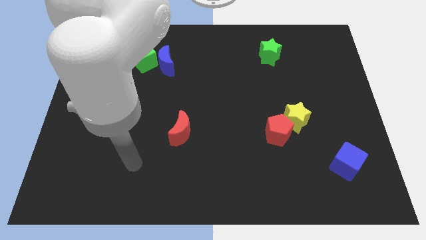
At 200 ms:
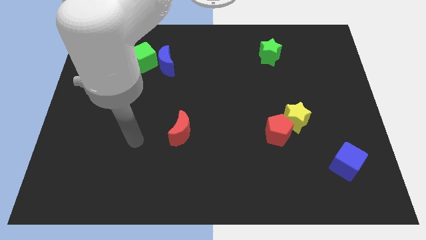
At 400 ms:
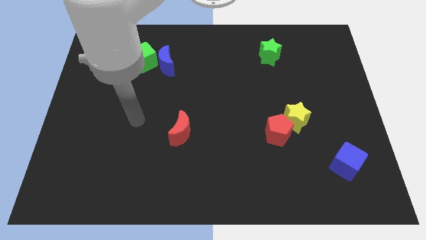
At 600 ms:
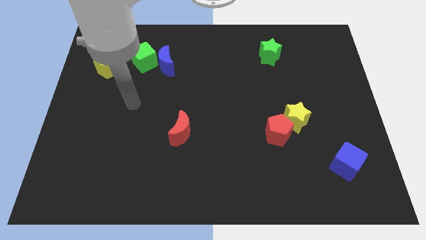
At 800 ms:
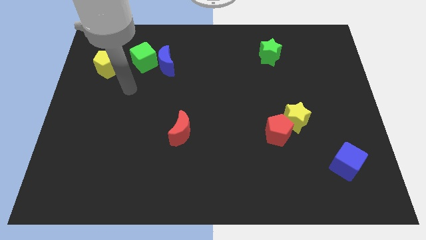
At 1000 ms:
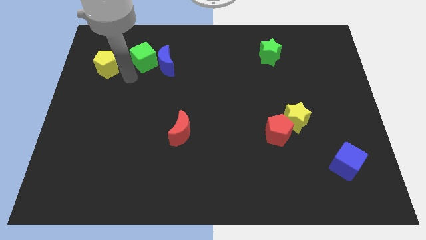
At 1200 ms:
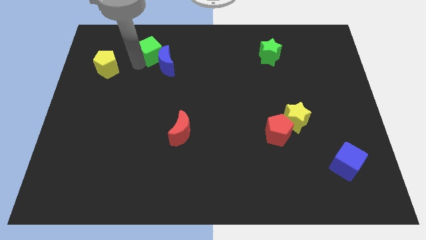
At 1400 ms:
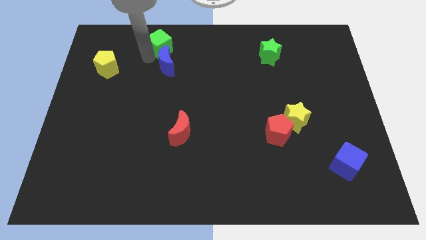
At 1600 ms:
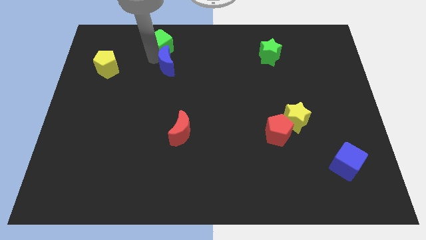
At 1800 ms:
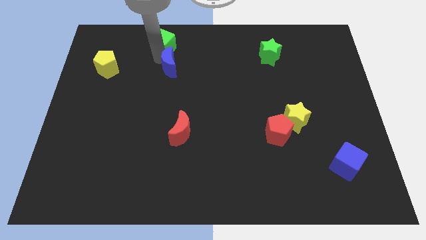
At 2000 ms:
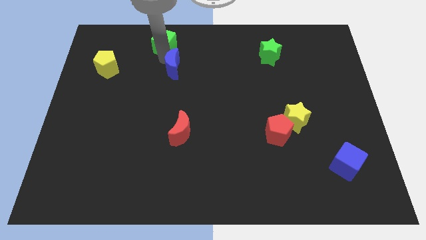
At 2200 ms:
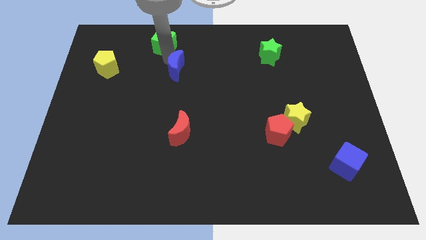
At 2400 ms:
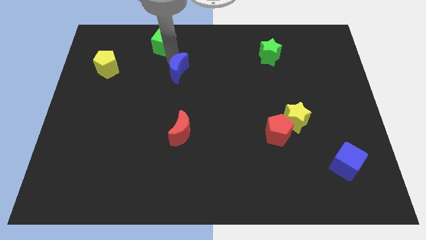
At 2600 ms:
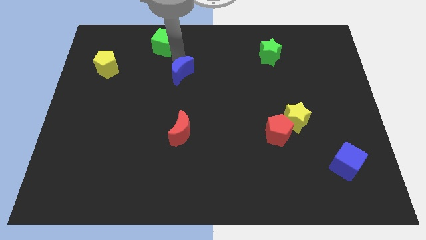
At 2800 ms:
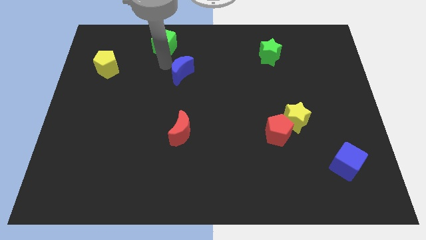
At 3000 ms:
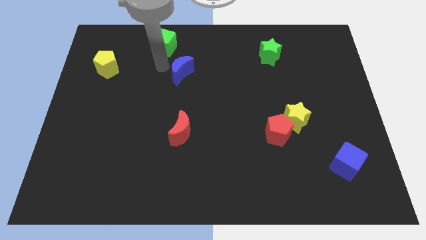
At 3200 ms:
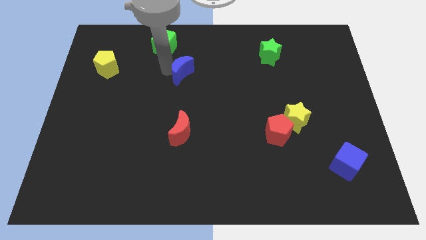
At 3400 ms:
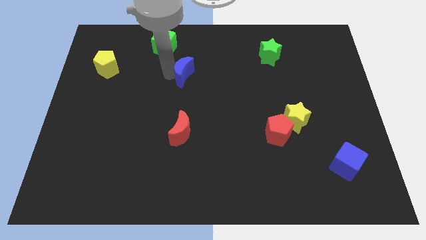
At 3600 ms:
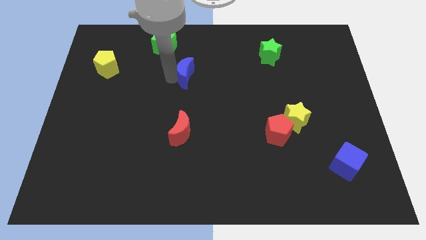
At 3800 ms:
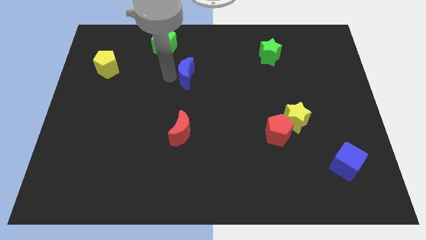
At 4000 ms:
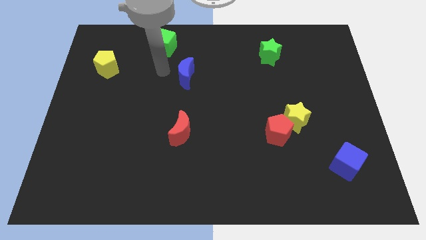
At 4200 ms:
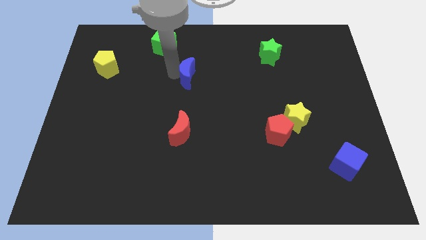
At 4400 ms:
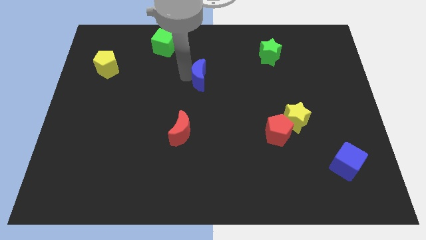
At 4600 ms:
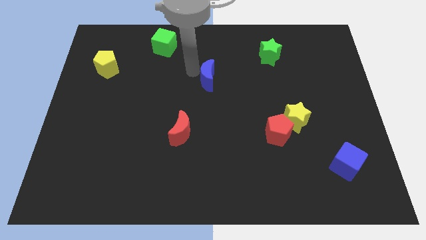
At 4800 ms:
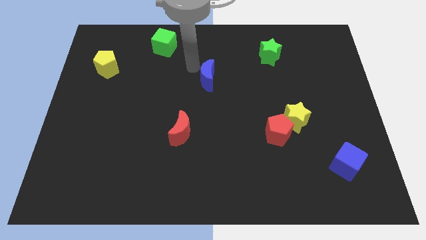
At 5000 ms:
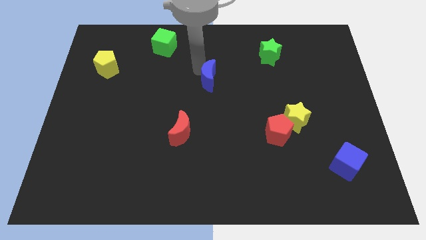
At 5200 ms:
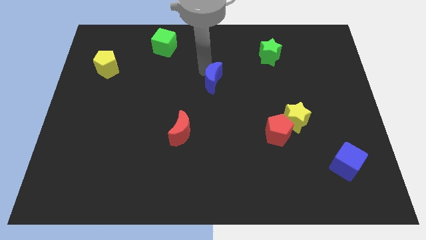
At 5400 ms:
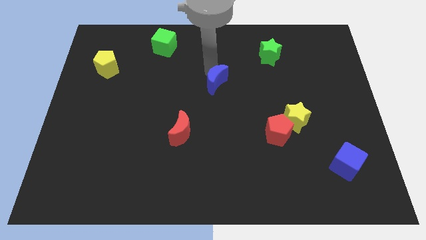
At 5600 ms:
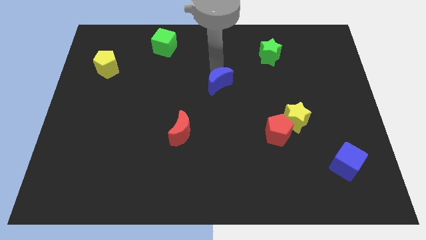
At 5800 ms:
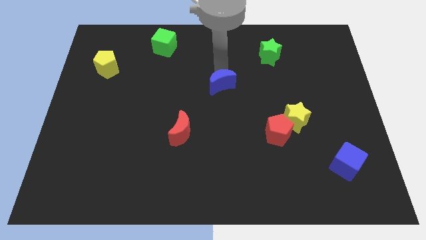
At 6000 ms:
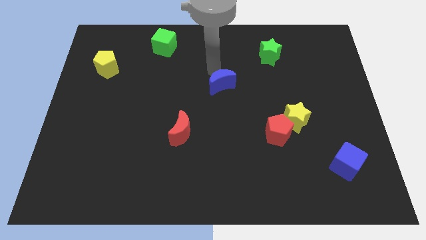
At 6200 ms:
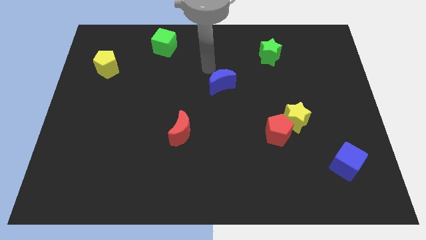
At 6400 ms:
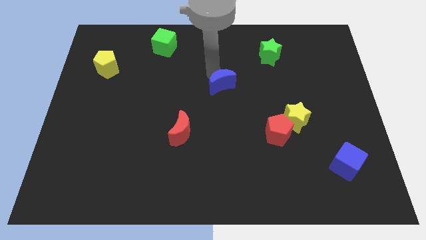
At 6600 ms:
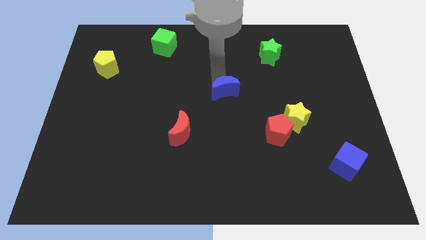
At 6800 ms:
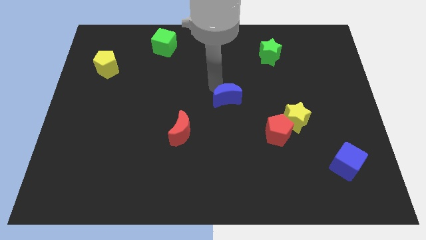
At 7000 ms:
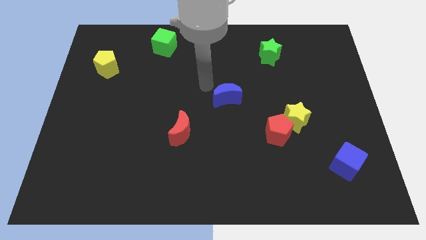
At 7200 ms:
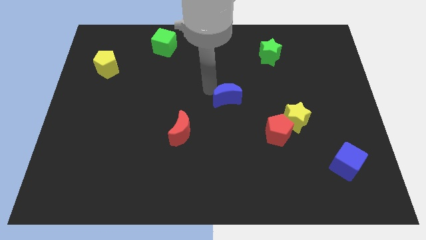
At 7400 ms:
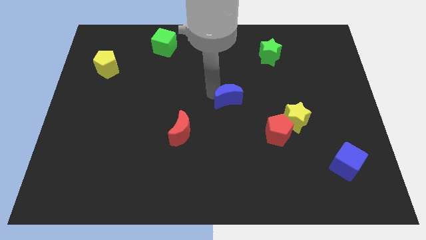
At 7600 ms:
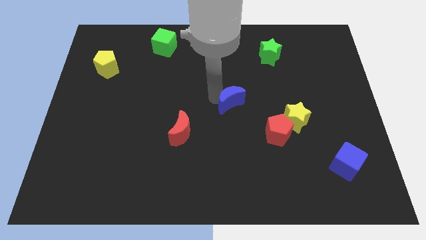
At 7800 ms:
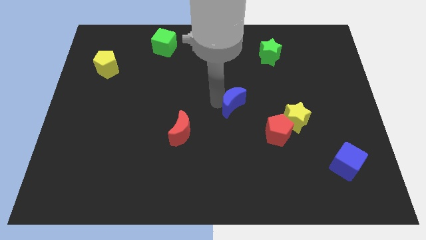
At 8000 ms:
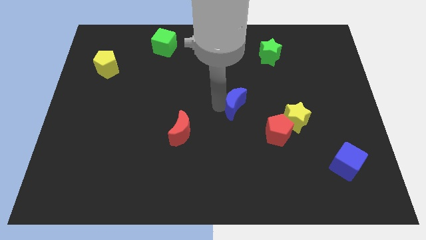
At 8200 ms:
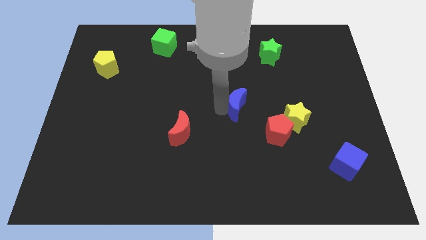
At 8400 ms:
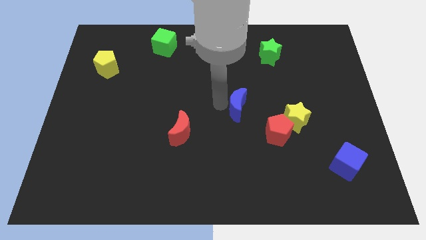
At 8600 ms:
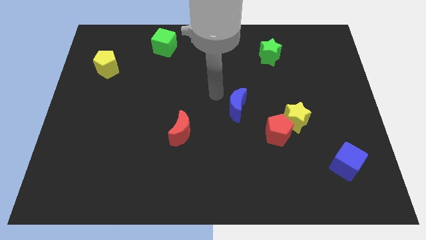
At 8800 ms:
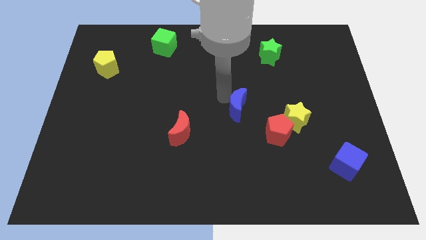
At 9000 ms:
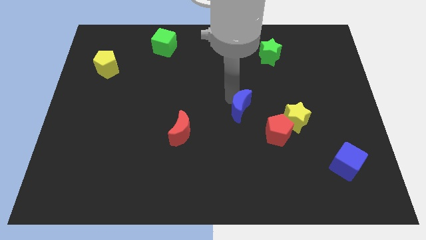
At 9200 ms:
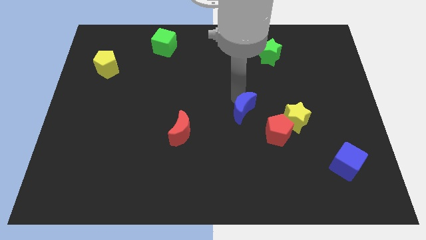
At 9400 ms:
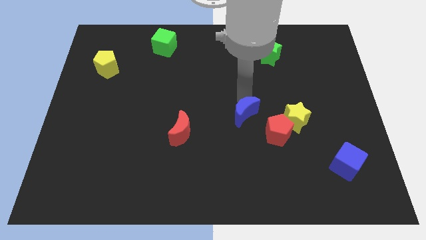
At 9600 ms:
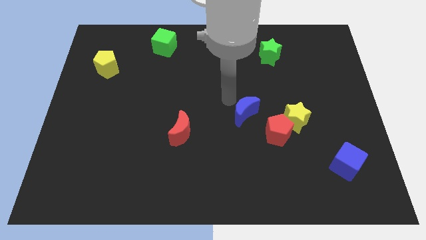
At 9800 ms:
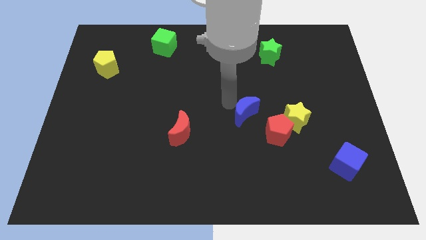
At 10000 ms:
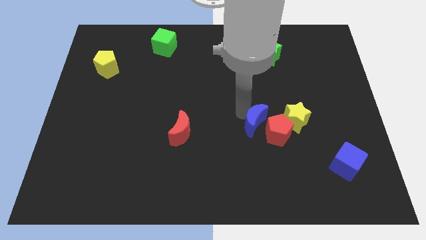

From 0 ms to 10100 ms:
put the blue moon to the red pentagon

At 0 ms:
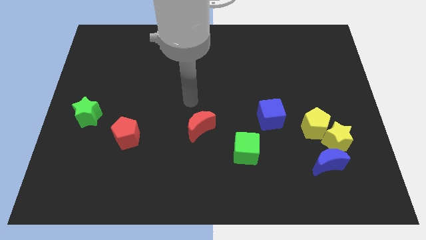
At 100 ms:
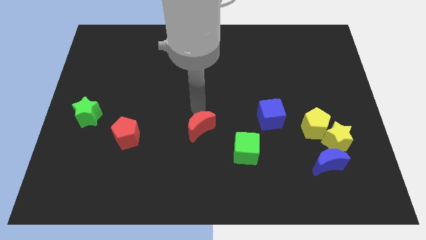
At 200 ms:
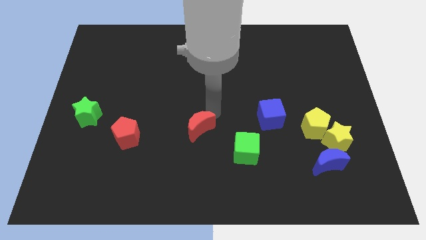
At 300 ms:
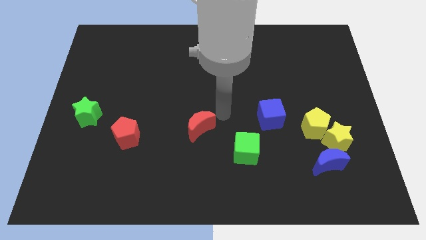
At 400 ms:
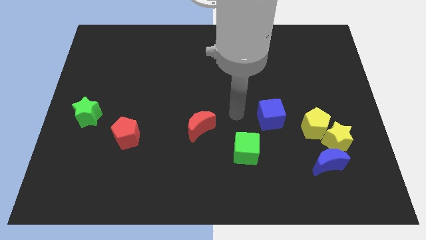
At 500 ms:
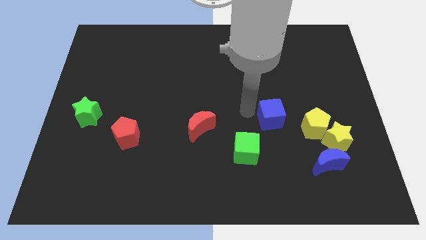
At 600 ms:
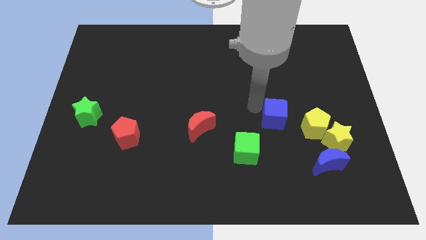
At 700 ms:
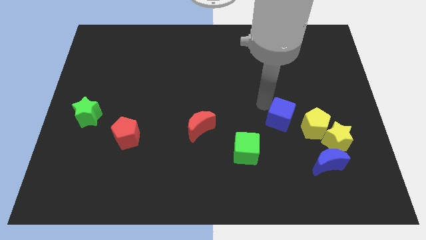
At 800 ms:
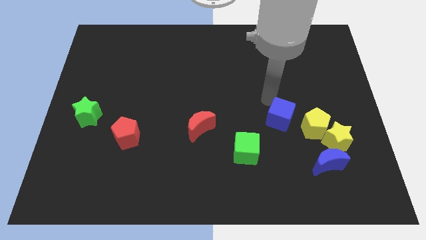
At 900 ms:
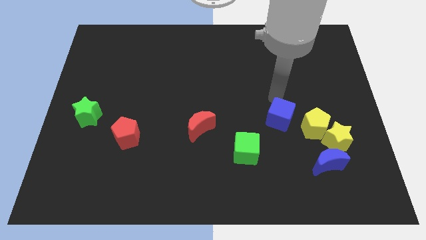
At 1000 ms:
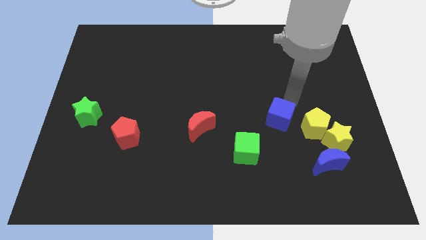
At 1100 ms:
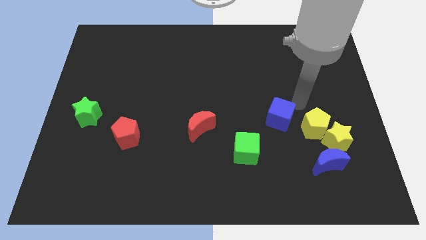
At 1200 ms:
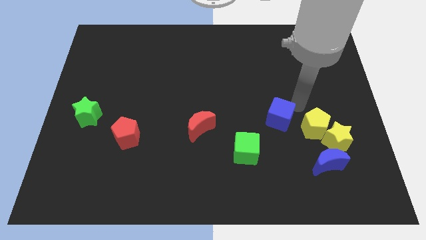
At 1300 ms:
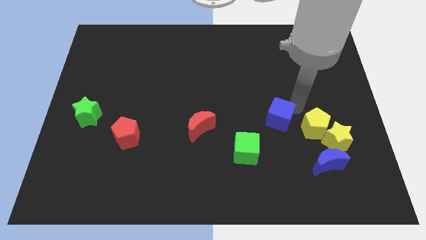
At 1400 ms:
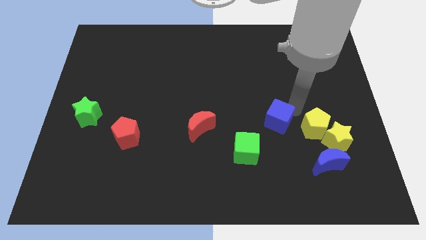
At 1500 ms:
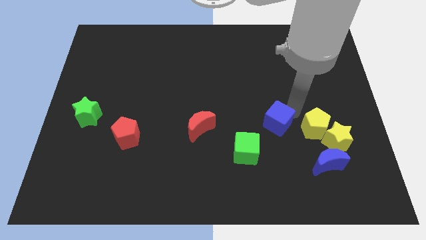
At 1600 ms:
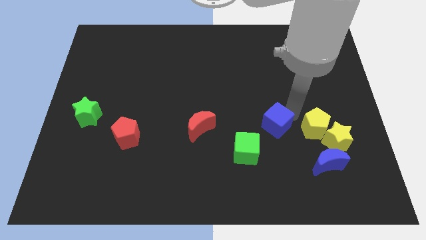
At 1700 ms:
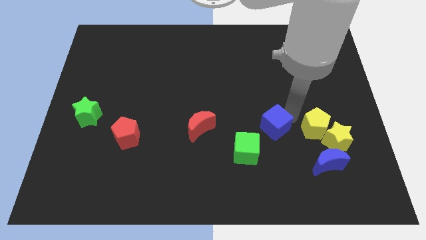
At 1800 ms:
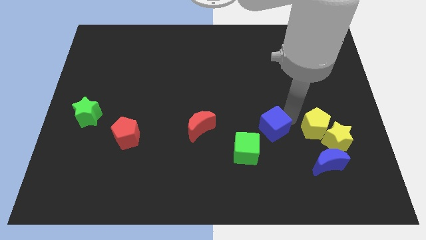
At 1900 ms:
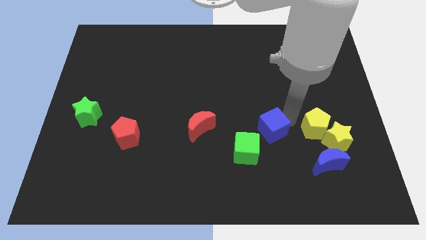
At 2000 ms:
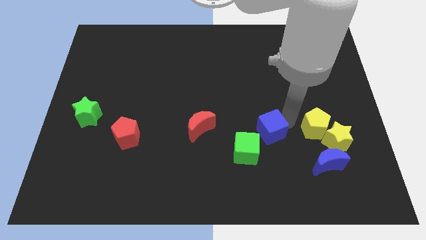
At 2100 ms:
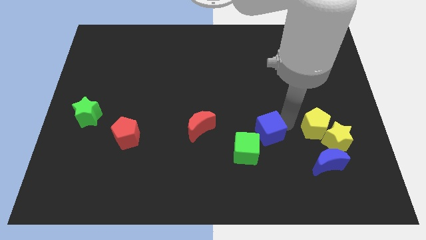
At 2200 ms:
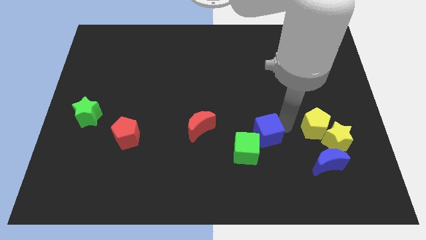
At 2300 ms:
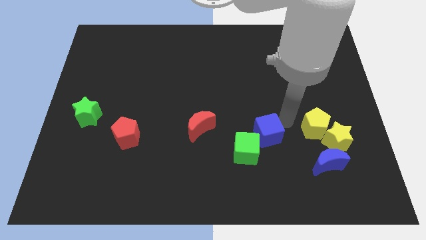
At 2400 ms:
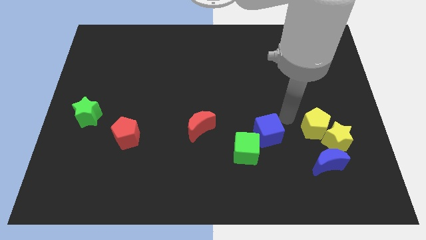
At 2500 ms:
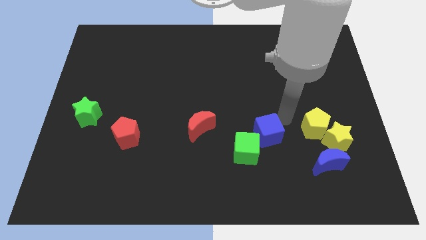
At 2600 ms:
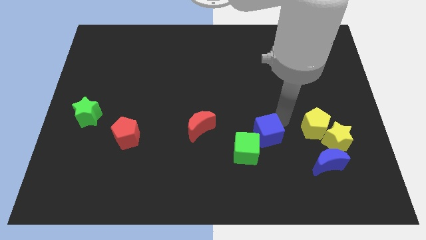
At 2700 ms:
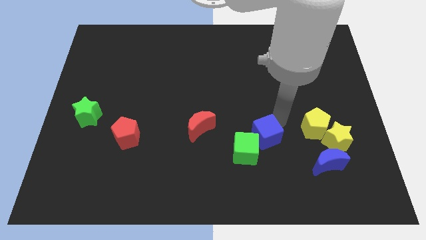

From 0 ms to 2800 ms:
push the blue cube towards the green cube
